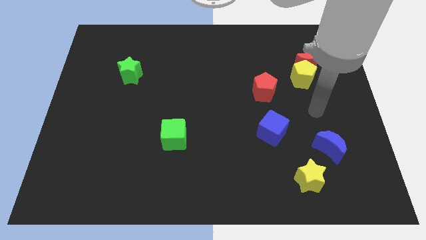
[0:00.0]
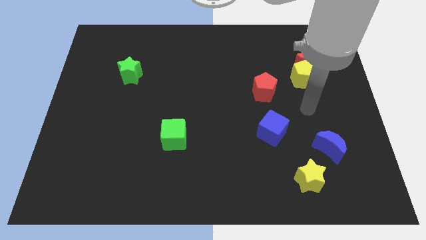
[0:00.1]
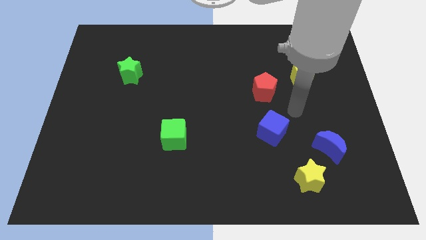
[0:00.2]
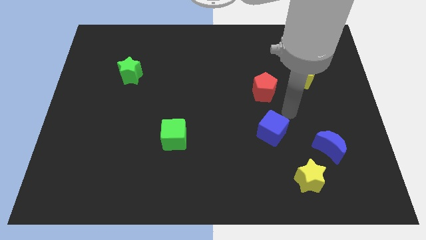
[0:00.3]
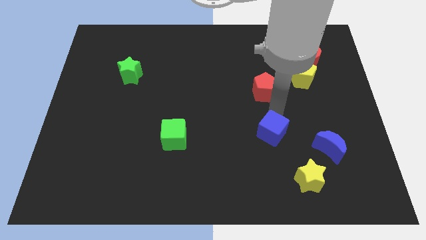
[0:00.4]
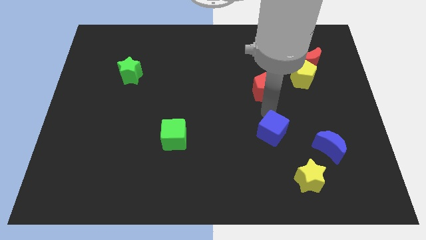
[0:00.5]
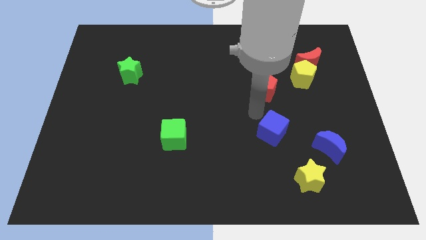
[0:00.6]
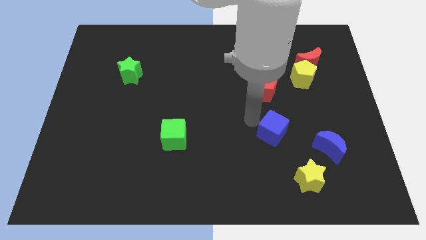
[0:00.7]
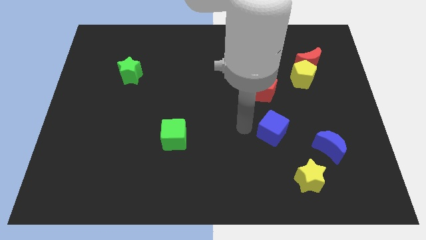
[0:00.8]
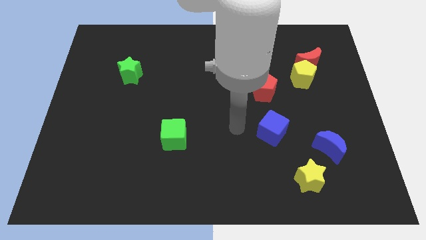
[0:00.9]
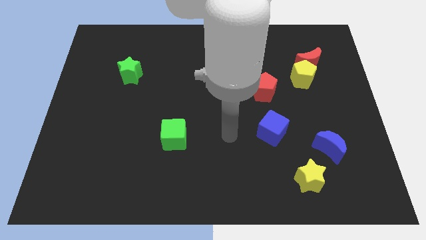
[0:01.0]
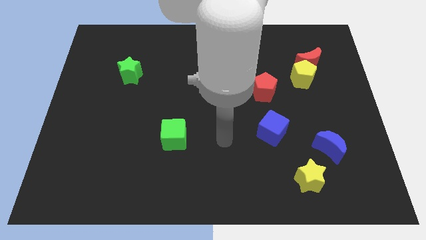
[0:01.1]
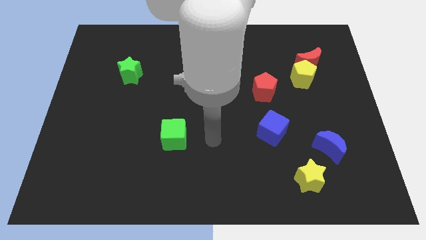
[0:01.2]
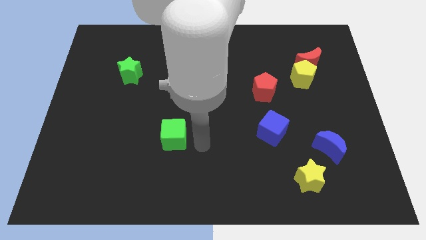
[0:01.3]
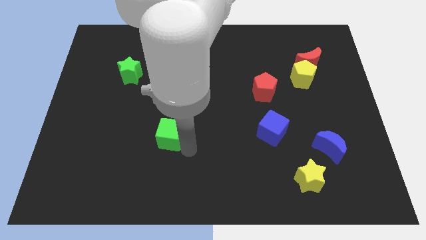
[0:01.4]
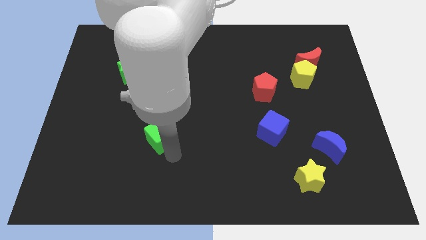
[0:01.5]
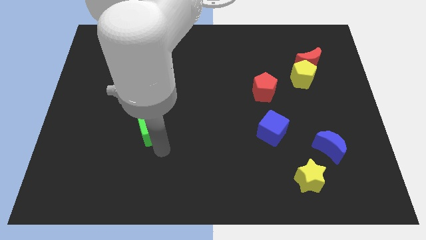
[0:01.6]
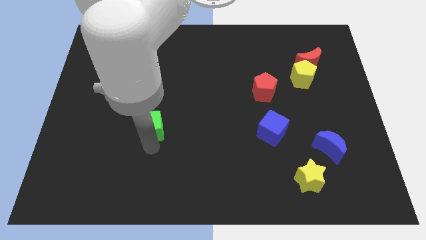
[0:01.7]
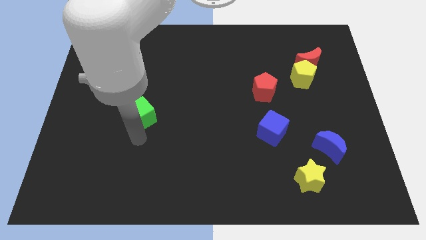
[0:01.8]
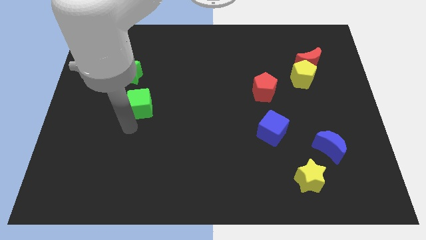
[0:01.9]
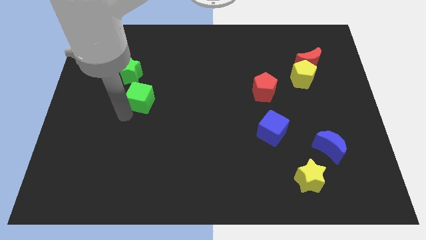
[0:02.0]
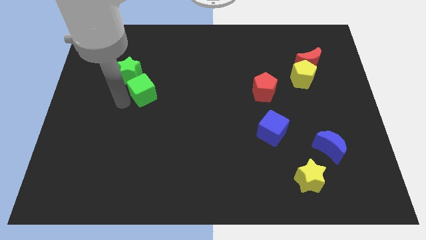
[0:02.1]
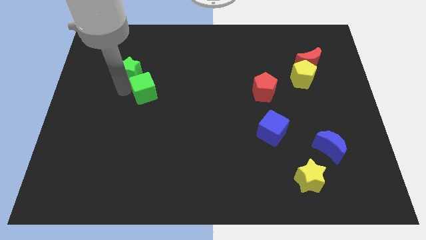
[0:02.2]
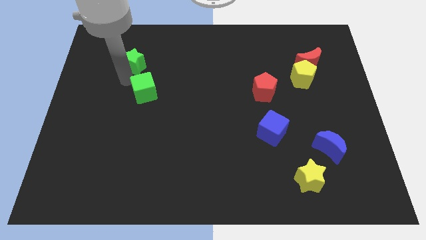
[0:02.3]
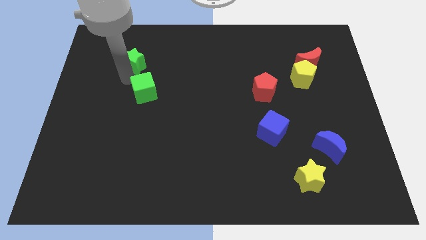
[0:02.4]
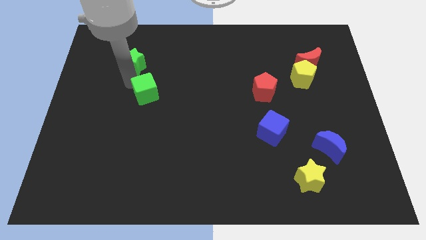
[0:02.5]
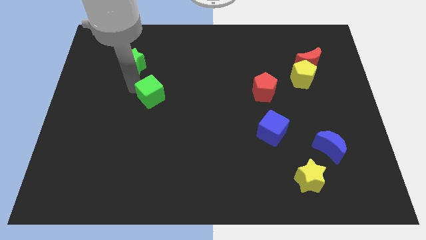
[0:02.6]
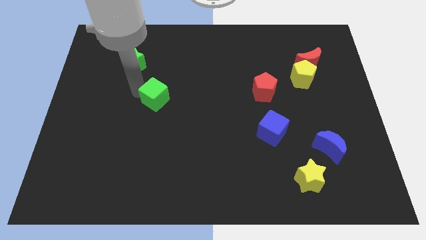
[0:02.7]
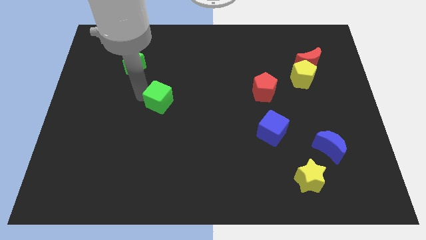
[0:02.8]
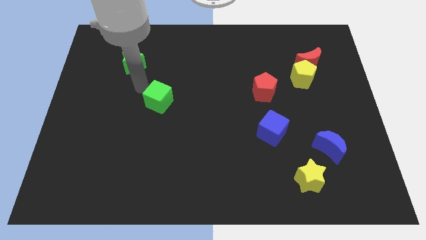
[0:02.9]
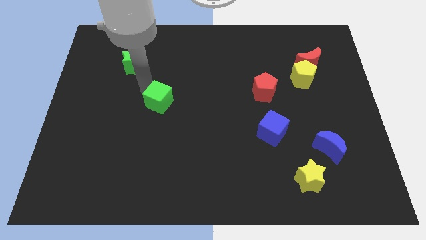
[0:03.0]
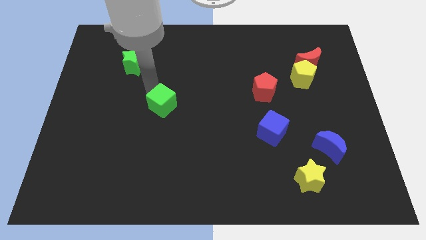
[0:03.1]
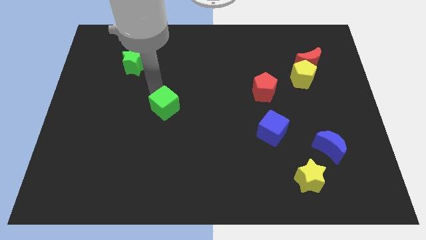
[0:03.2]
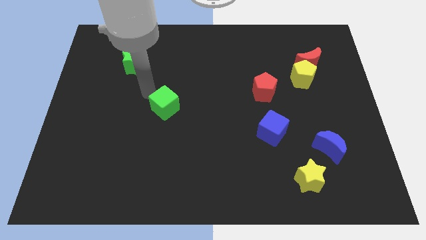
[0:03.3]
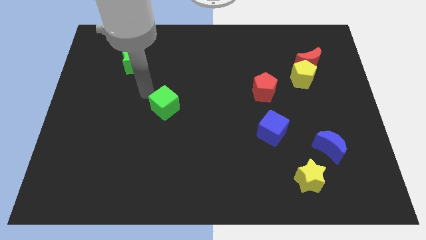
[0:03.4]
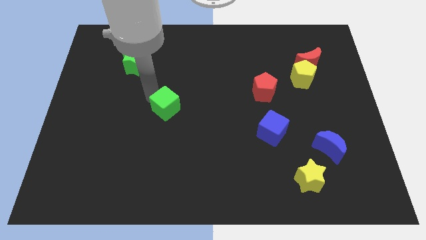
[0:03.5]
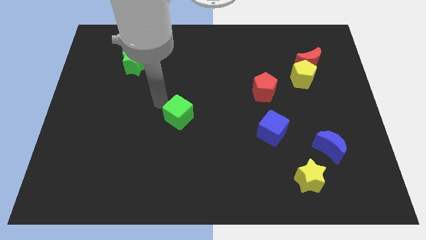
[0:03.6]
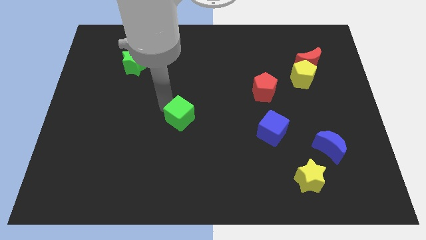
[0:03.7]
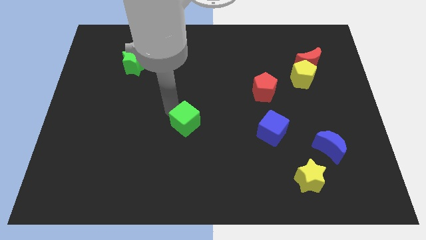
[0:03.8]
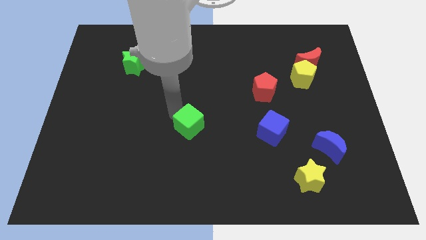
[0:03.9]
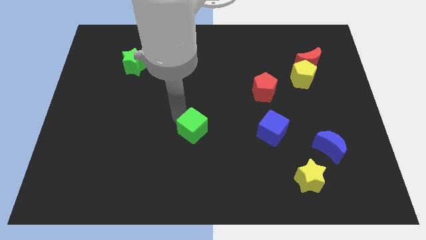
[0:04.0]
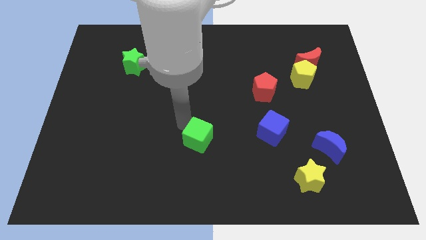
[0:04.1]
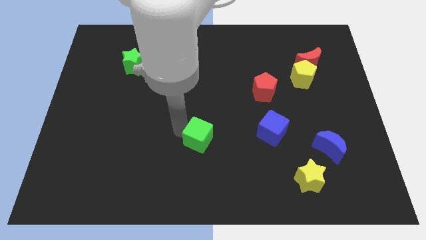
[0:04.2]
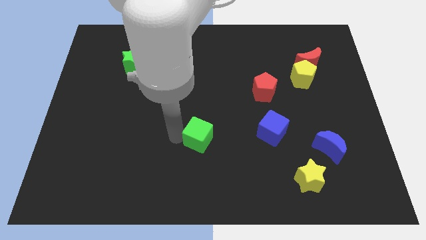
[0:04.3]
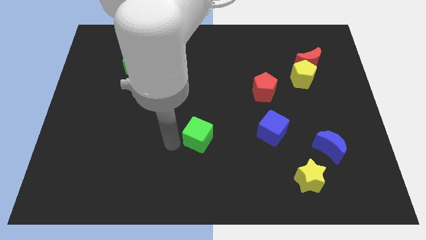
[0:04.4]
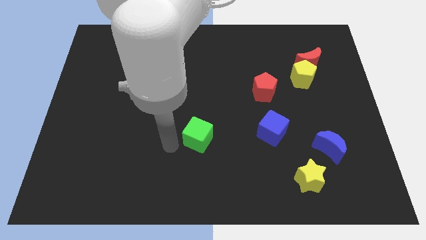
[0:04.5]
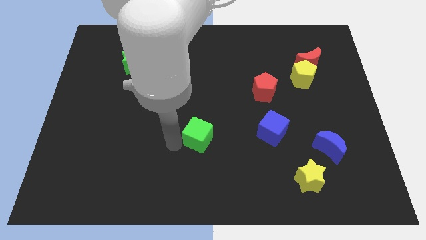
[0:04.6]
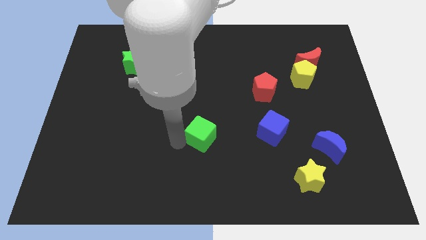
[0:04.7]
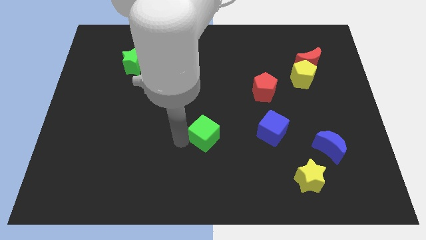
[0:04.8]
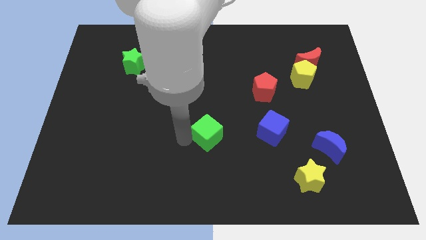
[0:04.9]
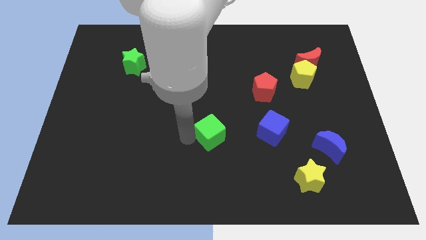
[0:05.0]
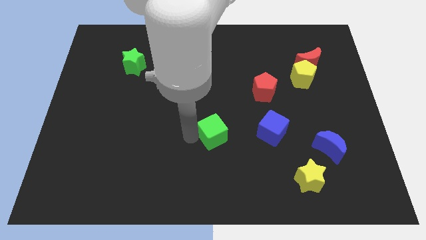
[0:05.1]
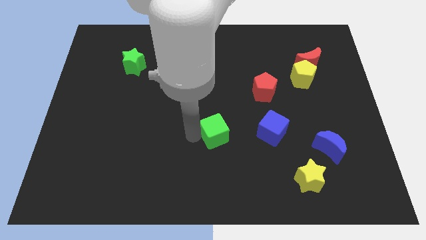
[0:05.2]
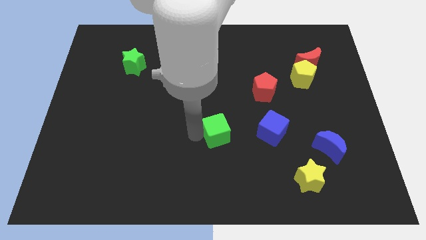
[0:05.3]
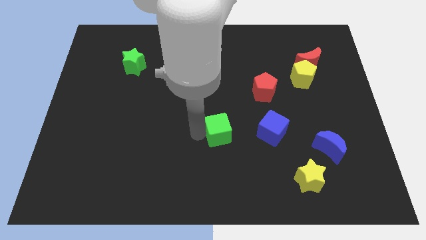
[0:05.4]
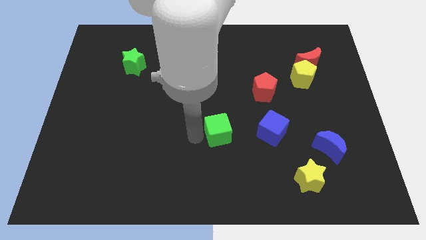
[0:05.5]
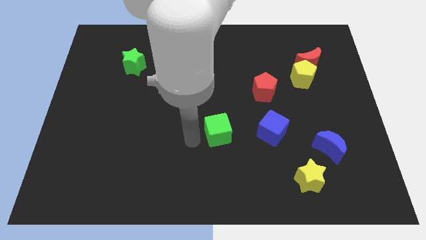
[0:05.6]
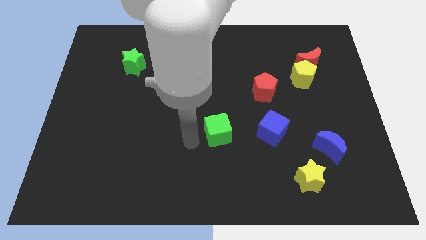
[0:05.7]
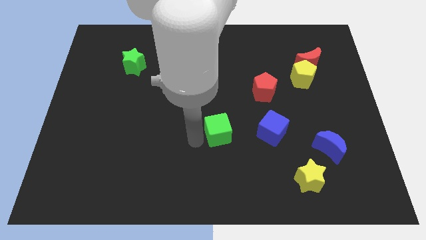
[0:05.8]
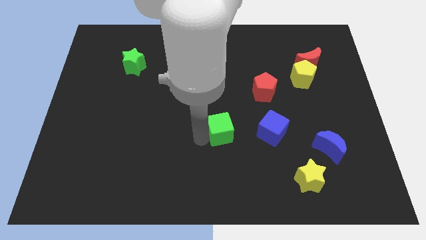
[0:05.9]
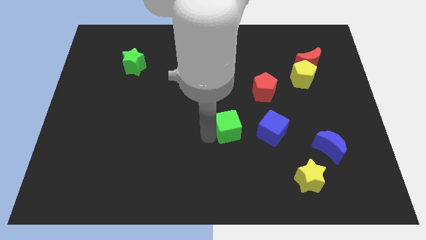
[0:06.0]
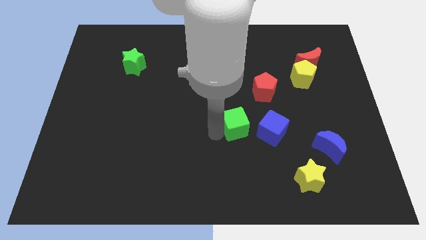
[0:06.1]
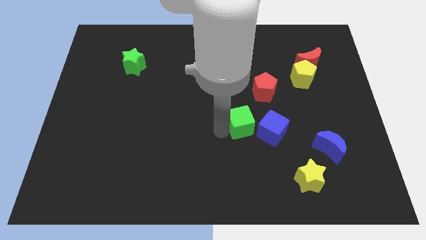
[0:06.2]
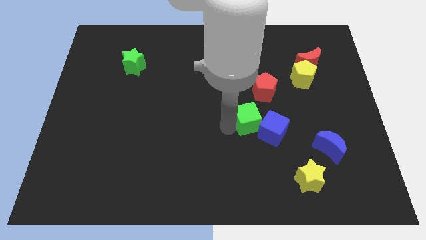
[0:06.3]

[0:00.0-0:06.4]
put the green cube close to the blue cube

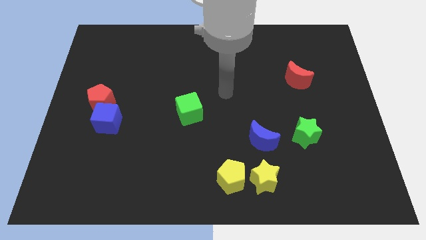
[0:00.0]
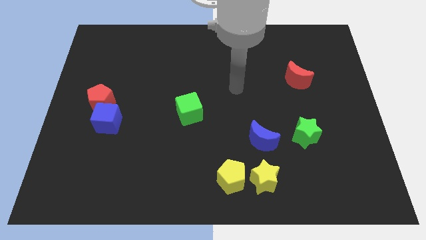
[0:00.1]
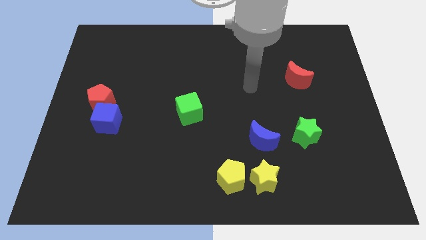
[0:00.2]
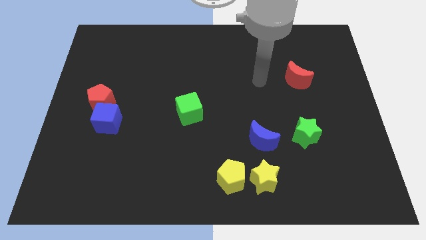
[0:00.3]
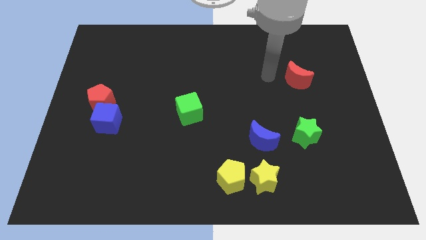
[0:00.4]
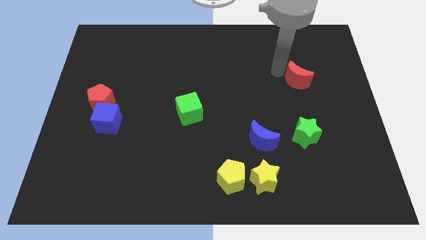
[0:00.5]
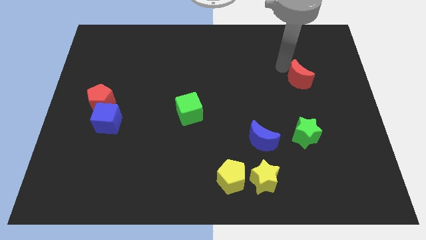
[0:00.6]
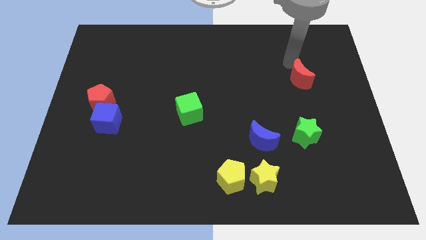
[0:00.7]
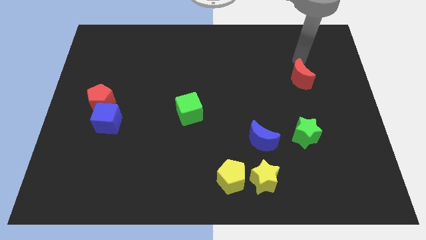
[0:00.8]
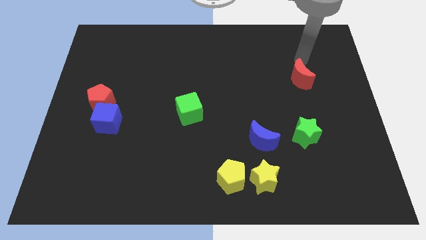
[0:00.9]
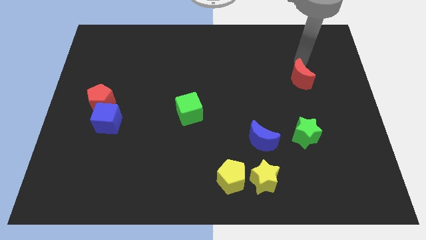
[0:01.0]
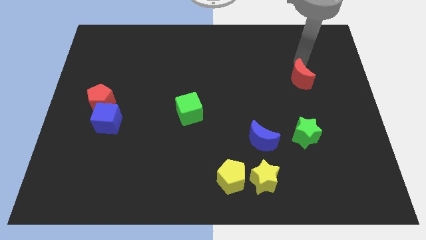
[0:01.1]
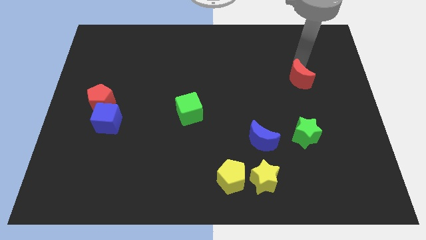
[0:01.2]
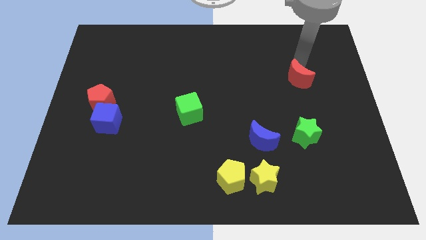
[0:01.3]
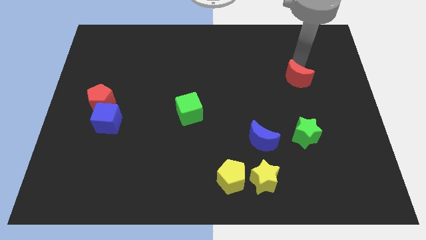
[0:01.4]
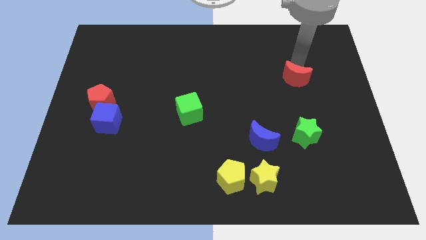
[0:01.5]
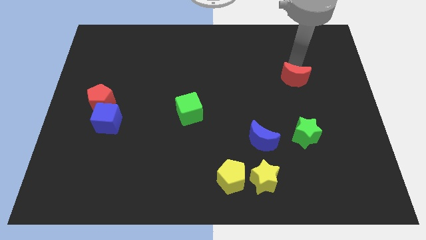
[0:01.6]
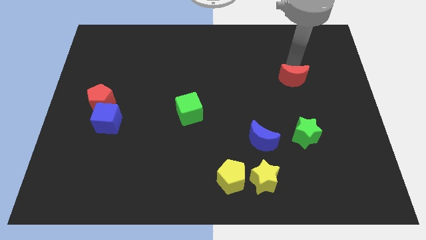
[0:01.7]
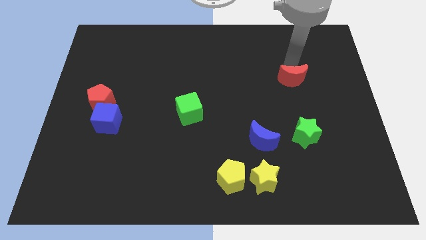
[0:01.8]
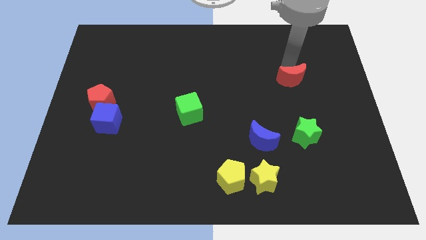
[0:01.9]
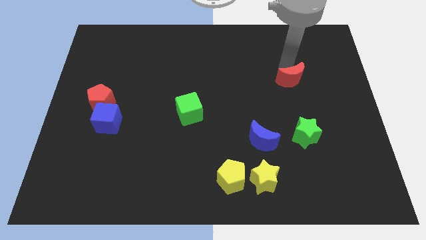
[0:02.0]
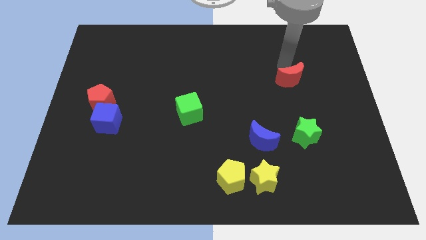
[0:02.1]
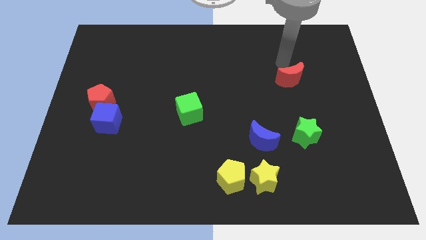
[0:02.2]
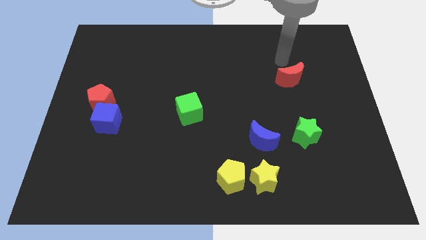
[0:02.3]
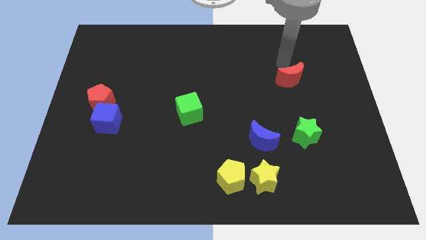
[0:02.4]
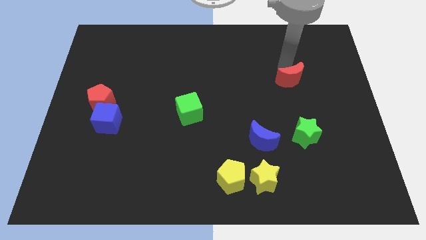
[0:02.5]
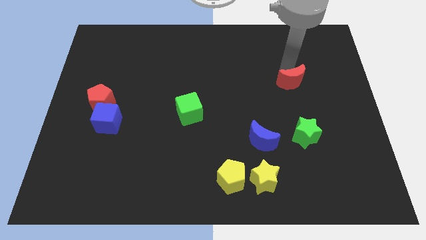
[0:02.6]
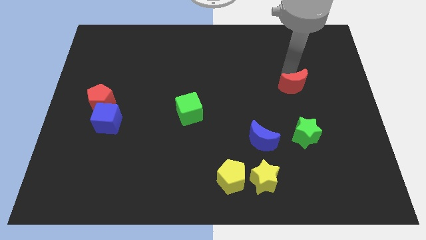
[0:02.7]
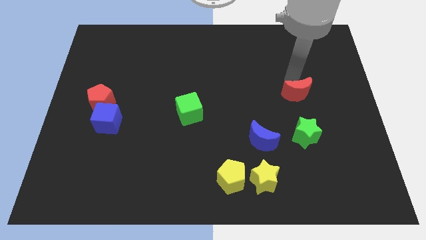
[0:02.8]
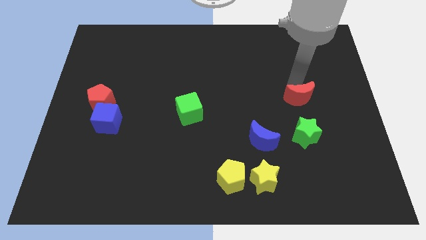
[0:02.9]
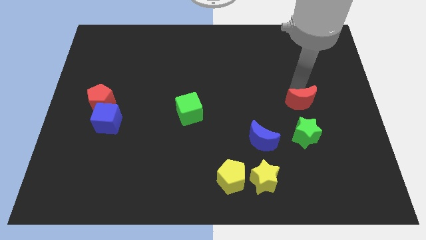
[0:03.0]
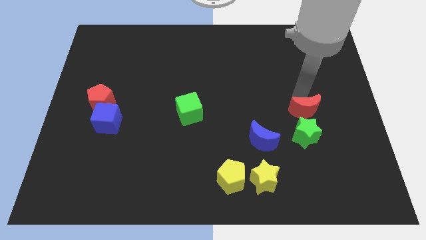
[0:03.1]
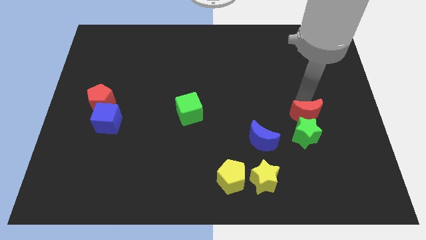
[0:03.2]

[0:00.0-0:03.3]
slide the red moon to the green star
